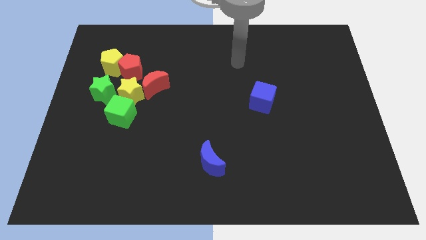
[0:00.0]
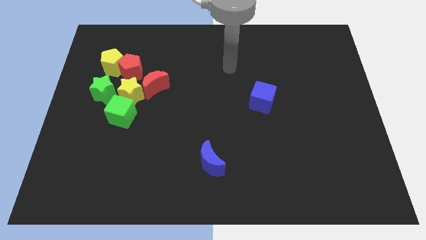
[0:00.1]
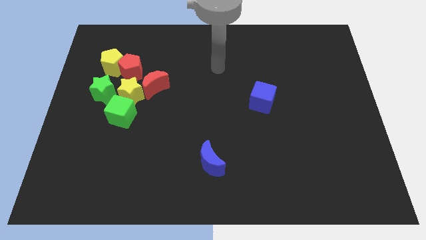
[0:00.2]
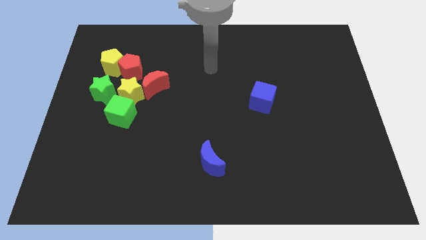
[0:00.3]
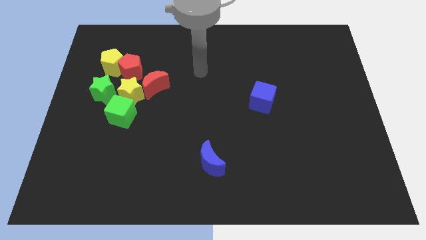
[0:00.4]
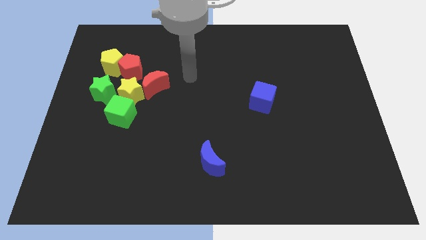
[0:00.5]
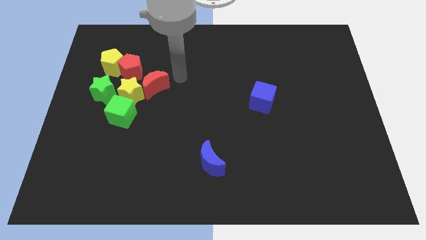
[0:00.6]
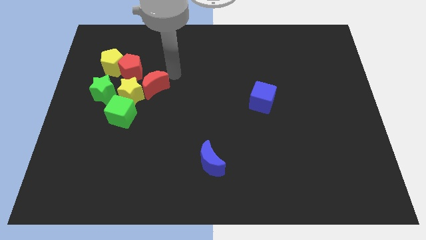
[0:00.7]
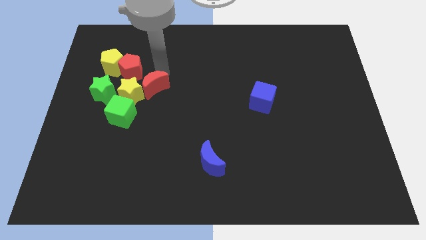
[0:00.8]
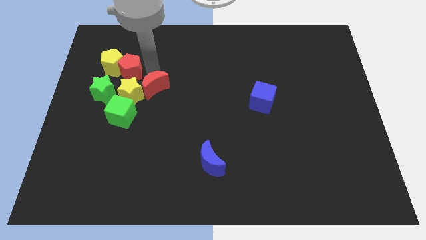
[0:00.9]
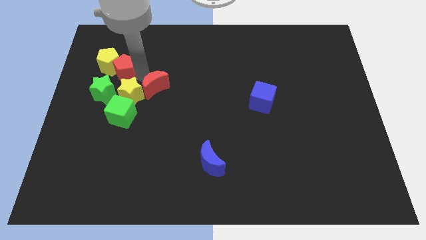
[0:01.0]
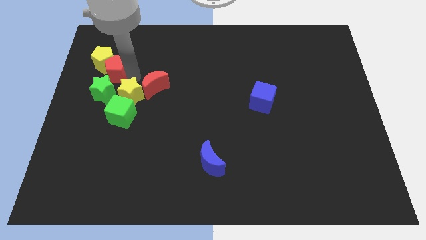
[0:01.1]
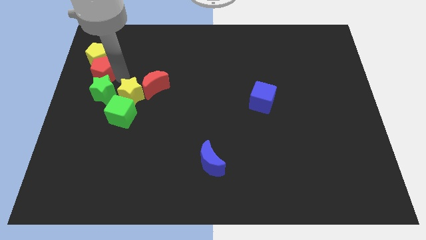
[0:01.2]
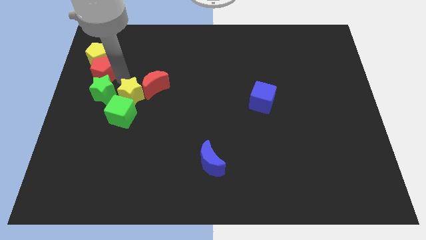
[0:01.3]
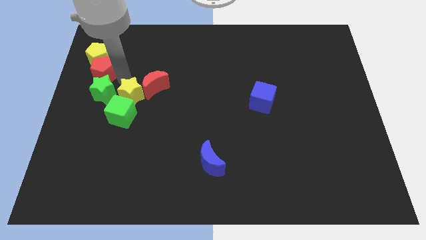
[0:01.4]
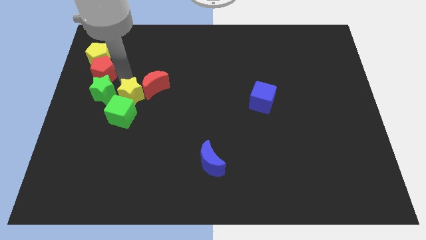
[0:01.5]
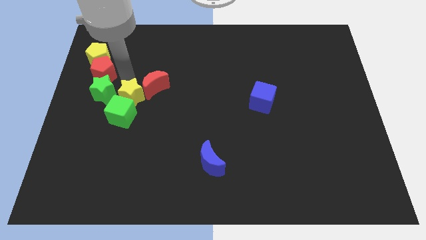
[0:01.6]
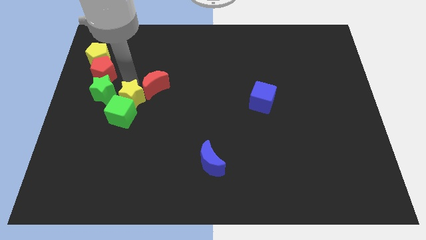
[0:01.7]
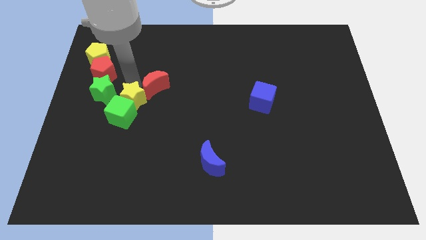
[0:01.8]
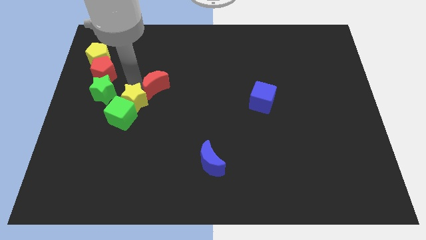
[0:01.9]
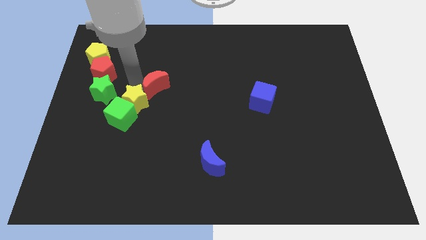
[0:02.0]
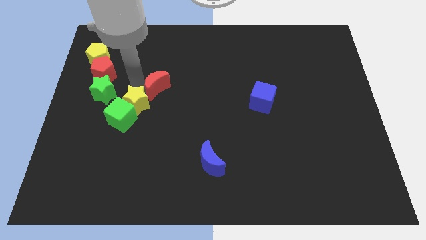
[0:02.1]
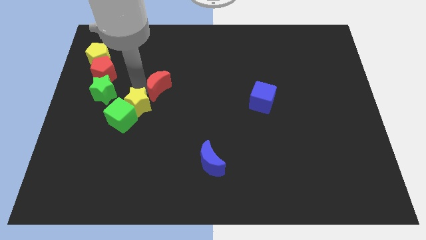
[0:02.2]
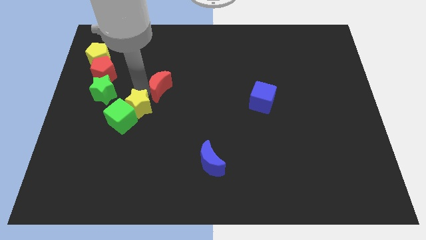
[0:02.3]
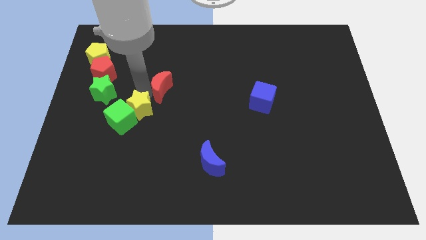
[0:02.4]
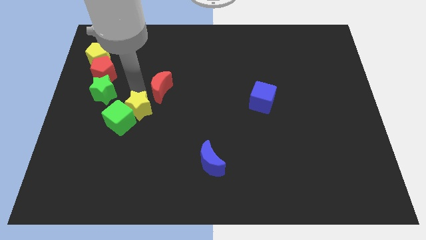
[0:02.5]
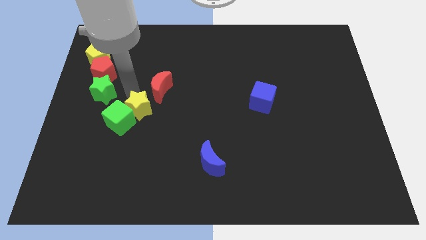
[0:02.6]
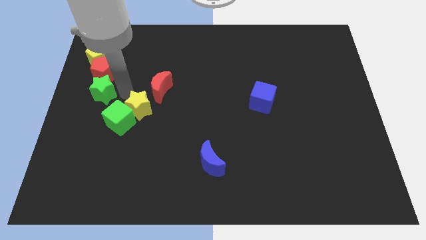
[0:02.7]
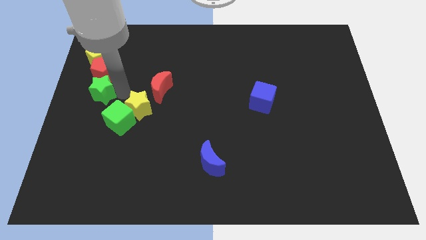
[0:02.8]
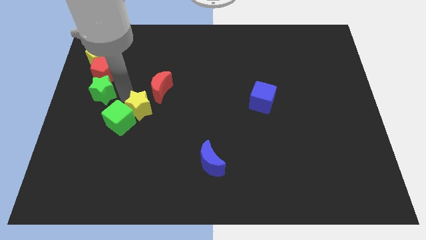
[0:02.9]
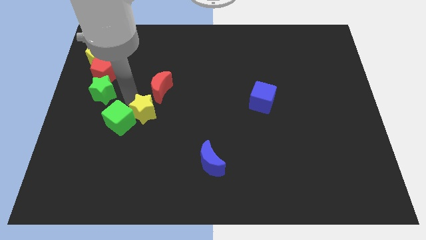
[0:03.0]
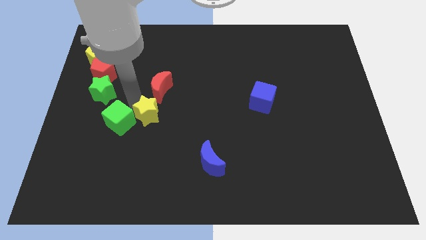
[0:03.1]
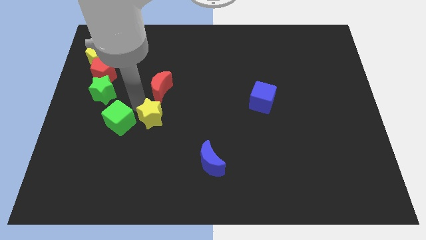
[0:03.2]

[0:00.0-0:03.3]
separate the yellow star from the group

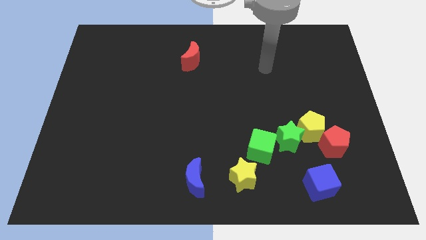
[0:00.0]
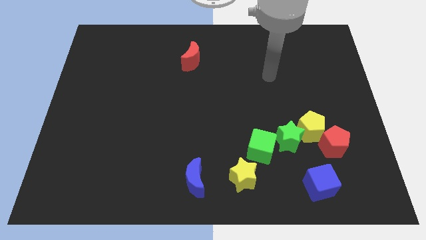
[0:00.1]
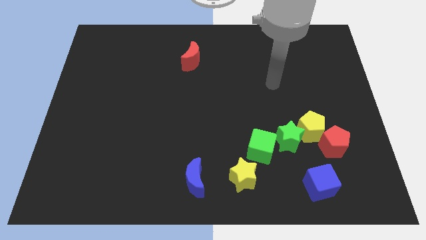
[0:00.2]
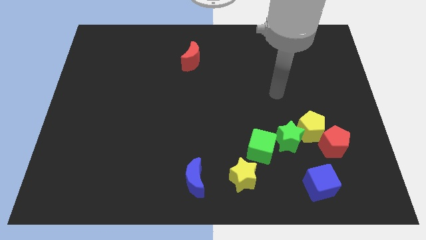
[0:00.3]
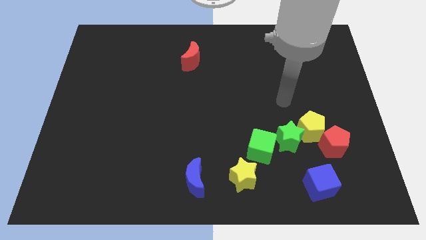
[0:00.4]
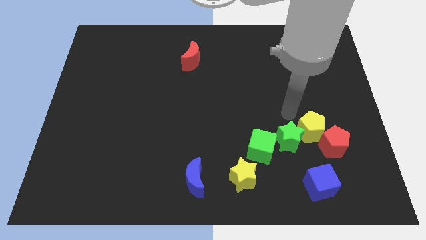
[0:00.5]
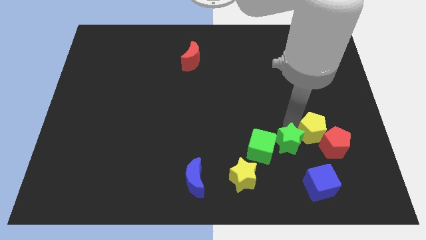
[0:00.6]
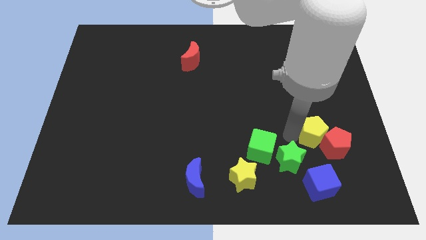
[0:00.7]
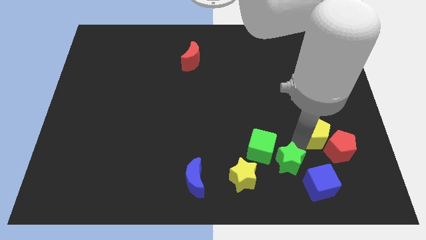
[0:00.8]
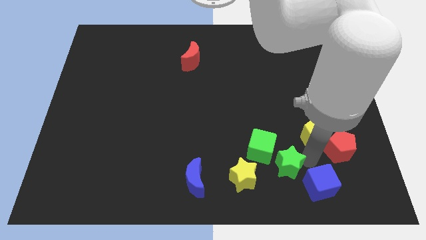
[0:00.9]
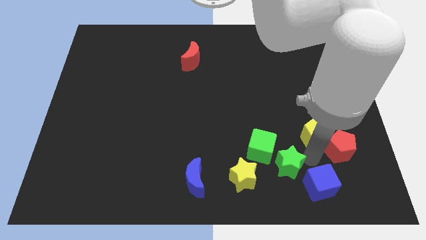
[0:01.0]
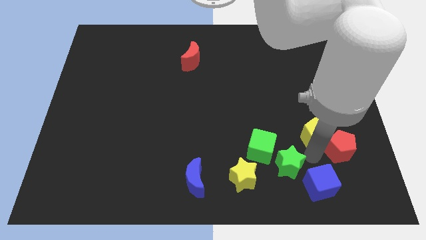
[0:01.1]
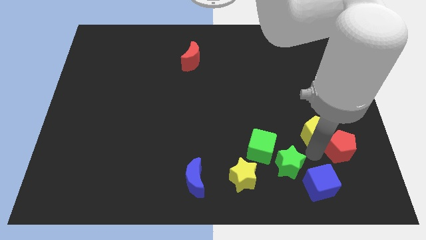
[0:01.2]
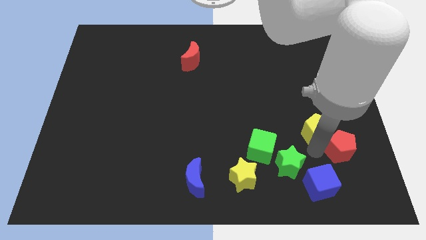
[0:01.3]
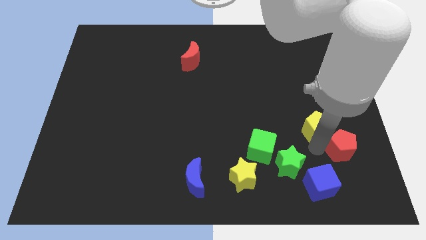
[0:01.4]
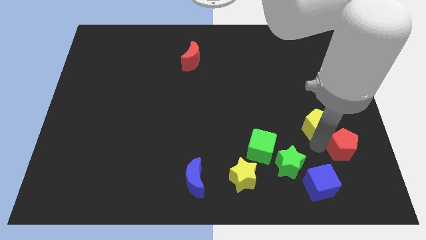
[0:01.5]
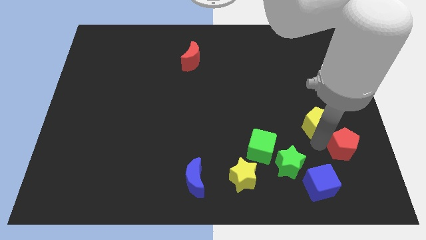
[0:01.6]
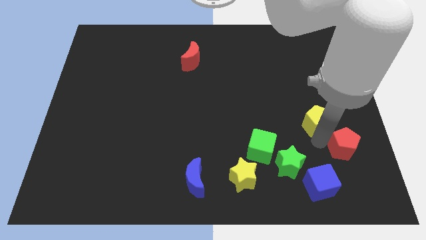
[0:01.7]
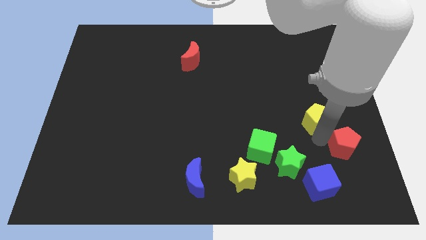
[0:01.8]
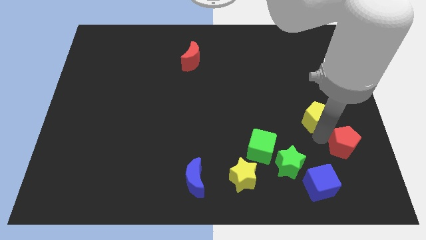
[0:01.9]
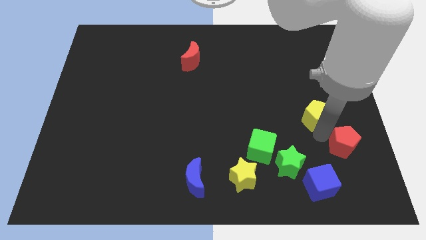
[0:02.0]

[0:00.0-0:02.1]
separate the yellow pentagon from the green star and red pentagon

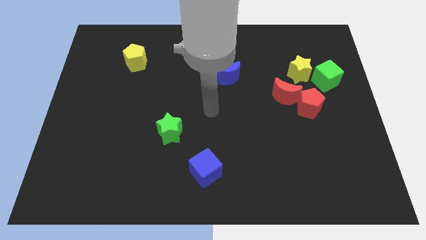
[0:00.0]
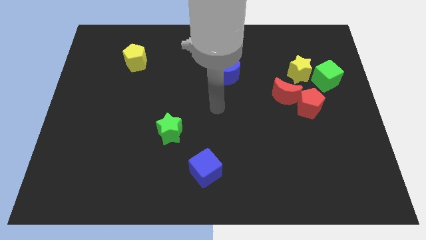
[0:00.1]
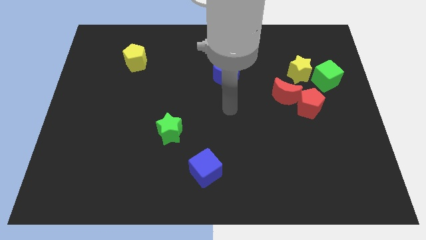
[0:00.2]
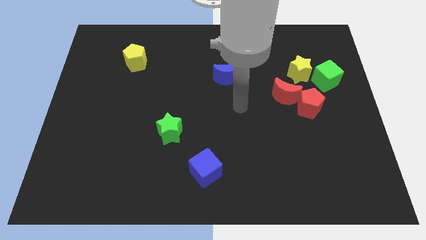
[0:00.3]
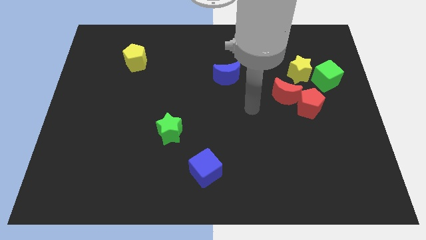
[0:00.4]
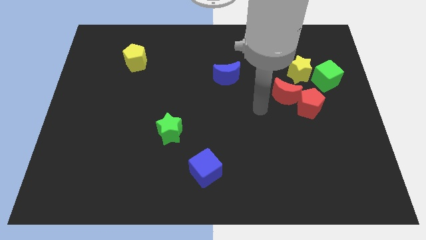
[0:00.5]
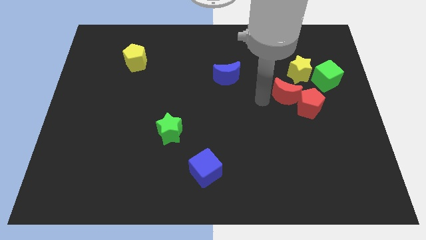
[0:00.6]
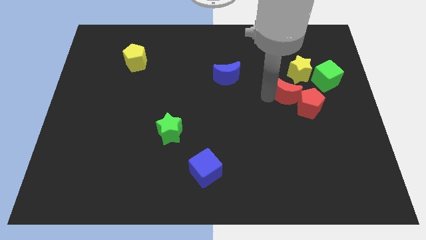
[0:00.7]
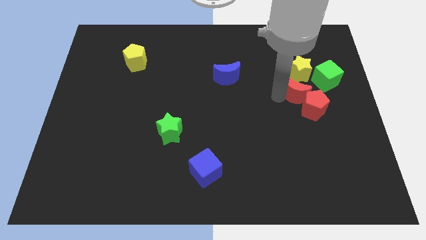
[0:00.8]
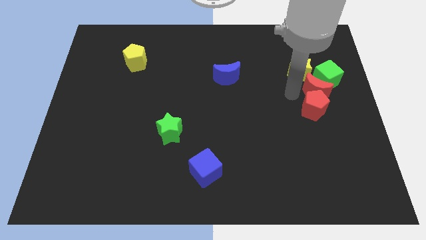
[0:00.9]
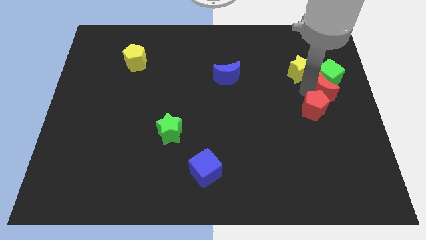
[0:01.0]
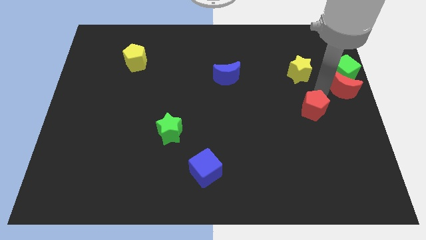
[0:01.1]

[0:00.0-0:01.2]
pull the red pentagon apart from the red moon

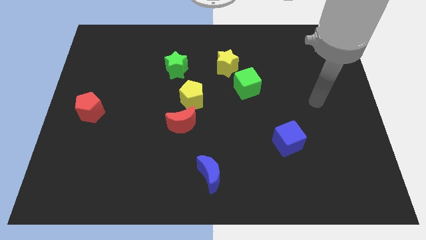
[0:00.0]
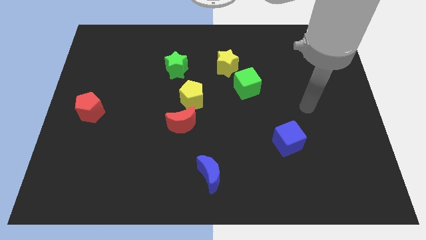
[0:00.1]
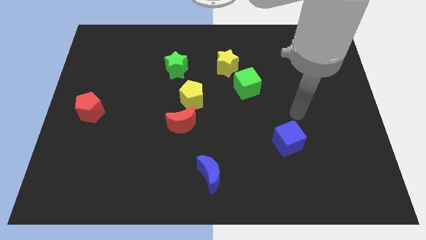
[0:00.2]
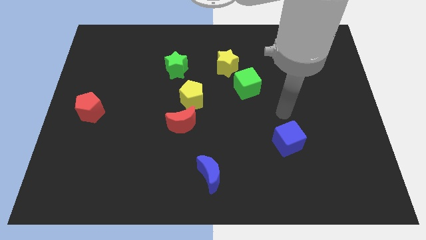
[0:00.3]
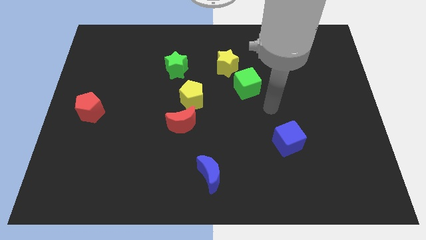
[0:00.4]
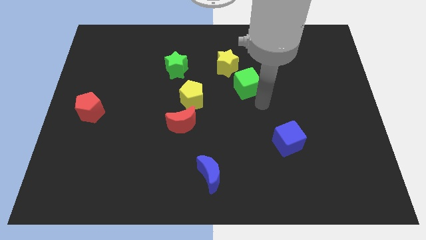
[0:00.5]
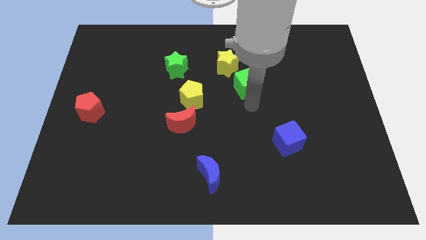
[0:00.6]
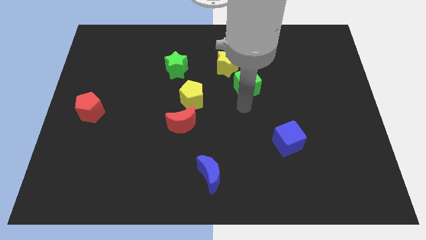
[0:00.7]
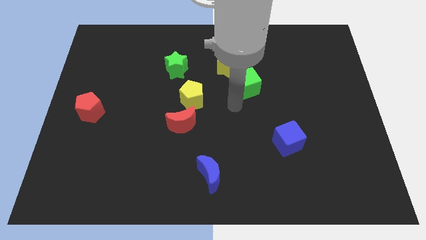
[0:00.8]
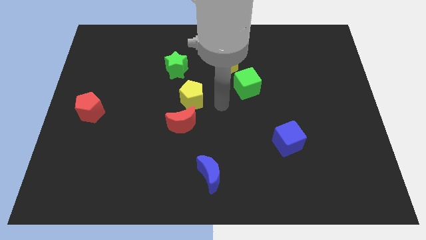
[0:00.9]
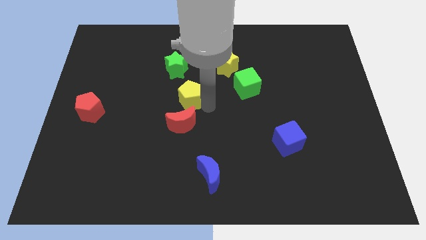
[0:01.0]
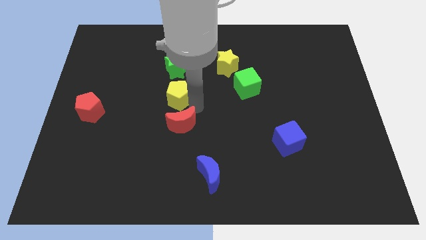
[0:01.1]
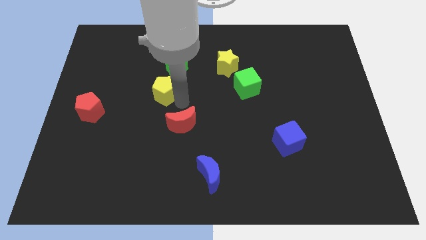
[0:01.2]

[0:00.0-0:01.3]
separate the red moon from the yellow pentagon

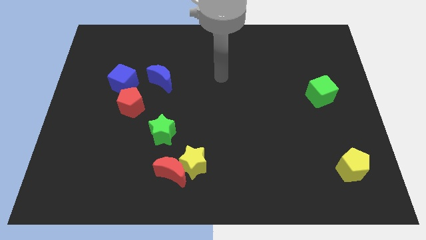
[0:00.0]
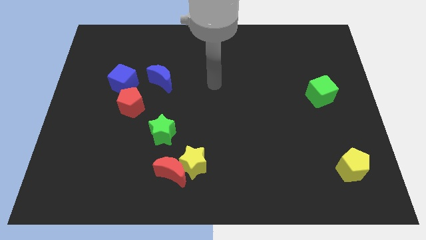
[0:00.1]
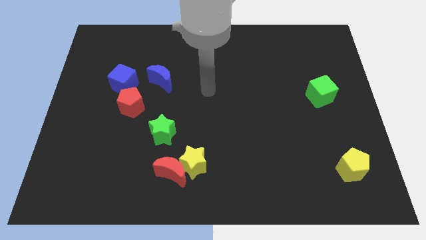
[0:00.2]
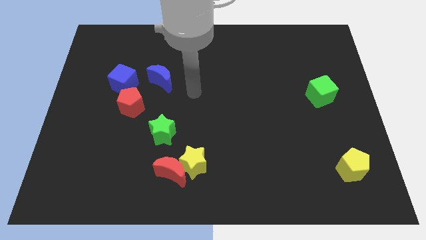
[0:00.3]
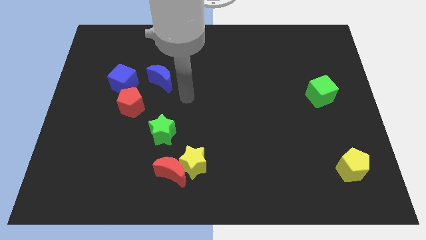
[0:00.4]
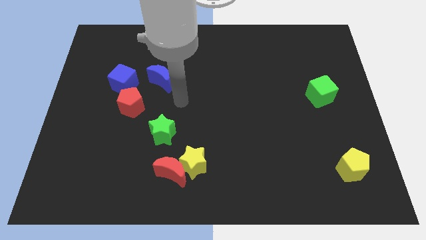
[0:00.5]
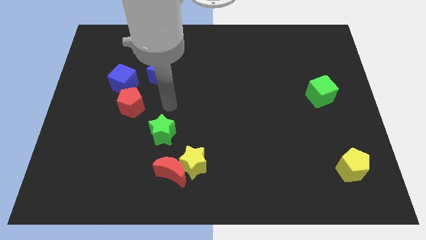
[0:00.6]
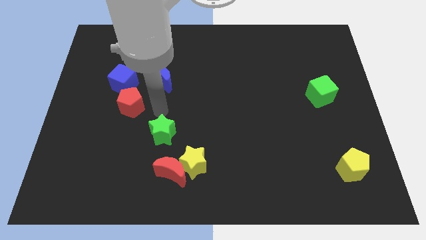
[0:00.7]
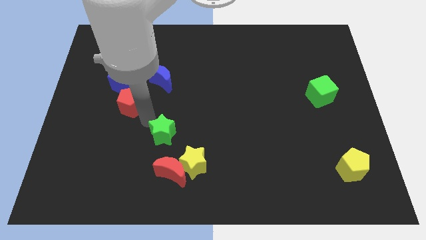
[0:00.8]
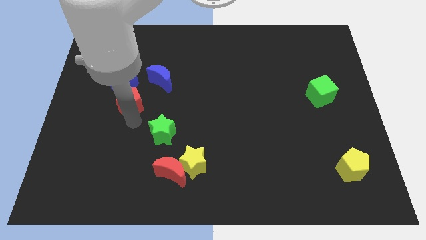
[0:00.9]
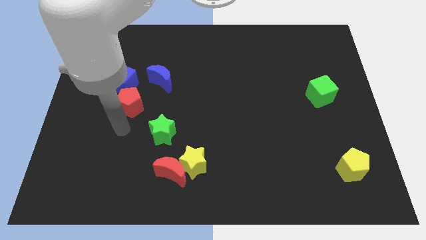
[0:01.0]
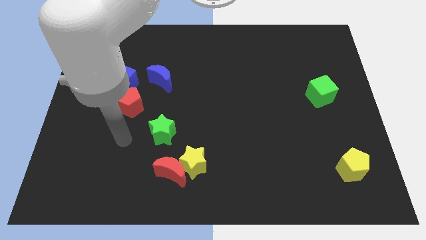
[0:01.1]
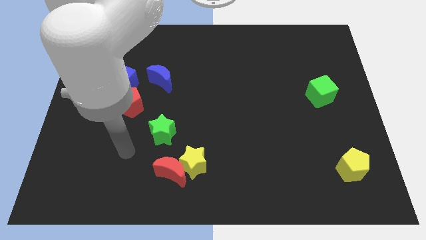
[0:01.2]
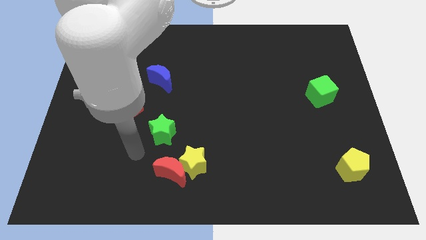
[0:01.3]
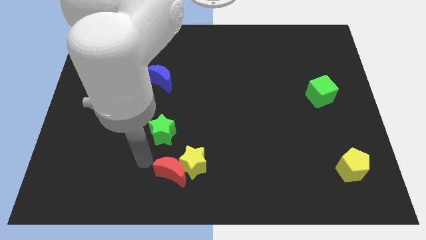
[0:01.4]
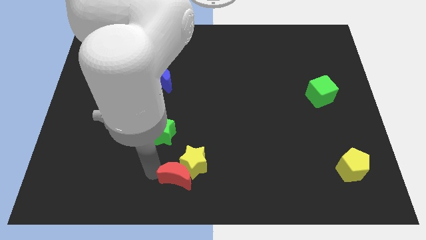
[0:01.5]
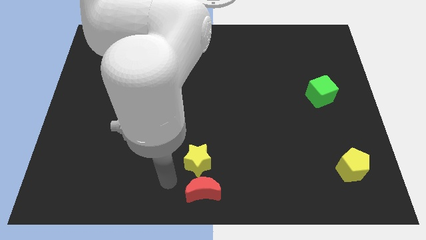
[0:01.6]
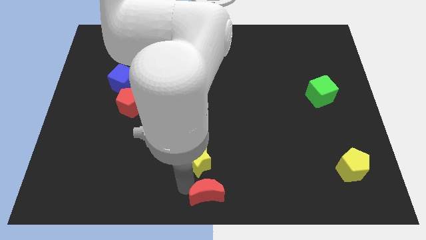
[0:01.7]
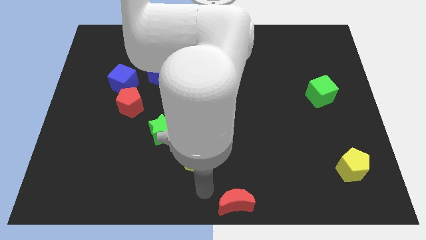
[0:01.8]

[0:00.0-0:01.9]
separate the yellow star from the red moon
